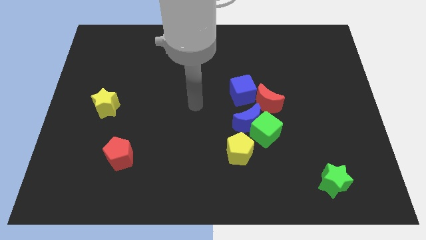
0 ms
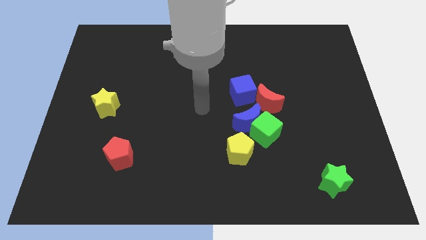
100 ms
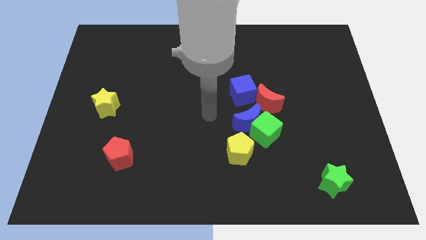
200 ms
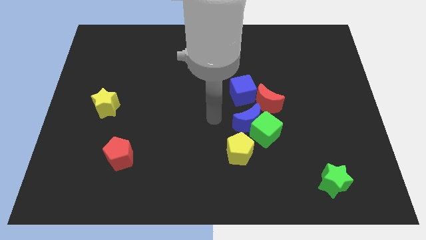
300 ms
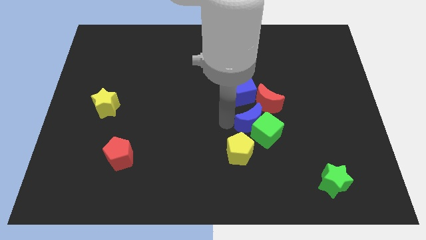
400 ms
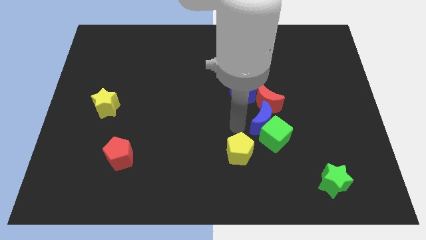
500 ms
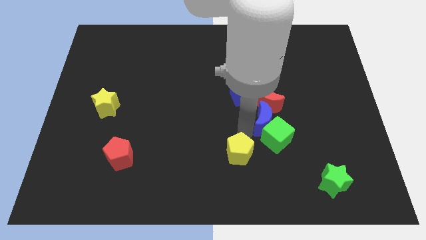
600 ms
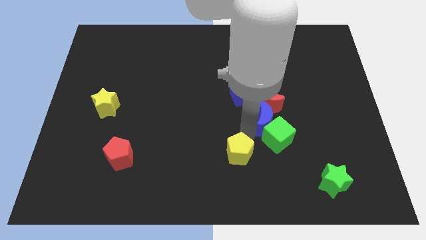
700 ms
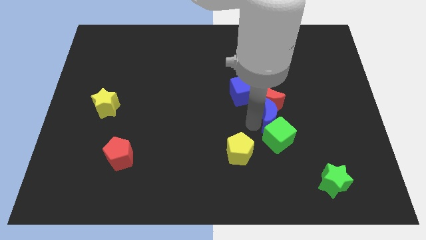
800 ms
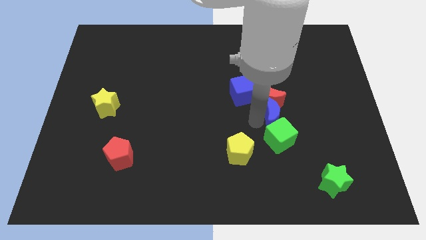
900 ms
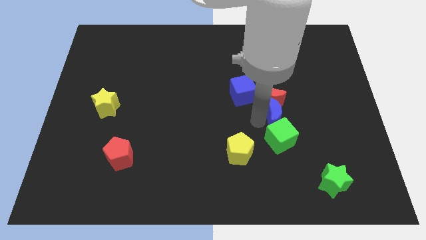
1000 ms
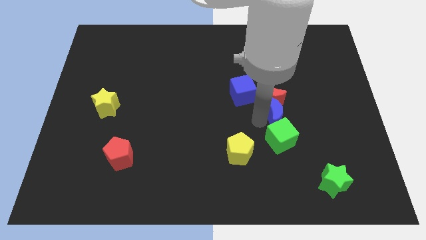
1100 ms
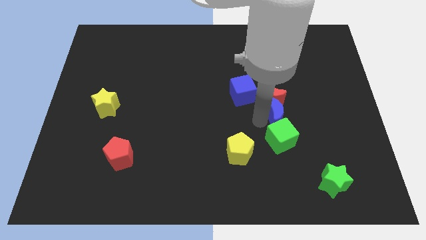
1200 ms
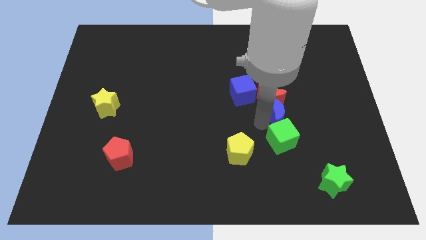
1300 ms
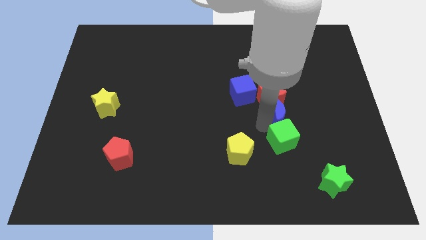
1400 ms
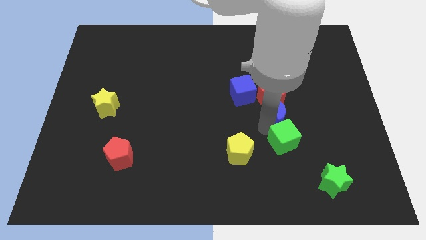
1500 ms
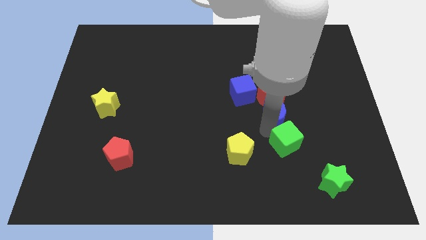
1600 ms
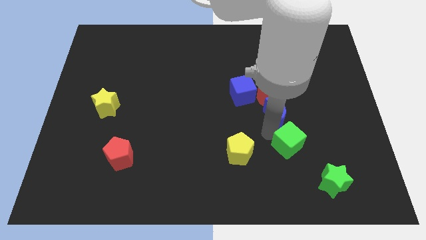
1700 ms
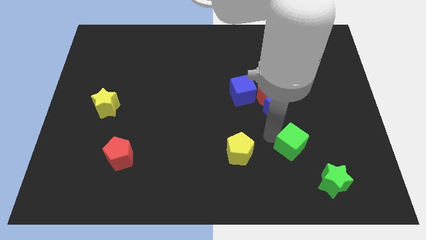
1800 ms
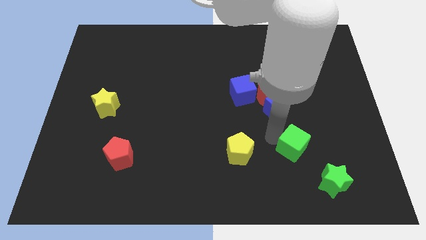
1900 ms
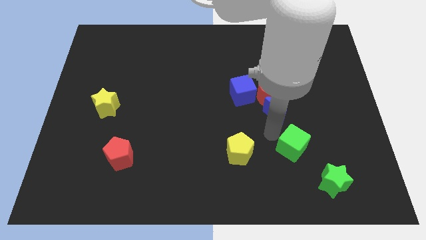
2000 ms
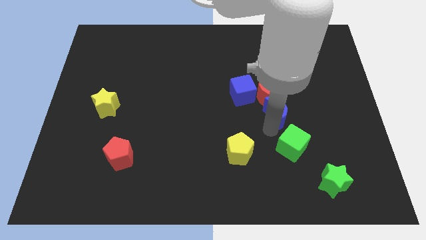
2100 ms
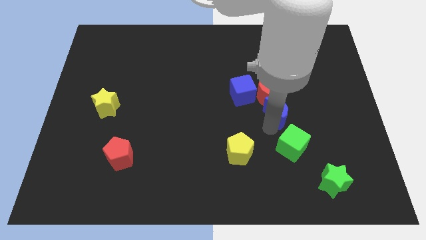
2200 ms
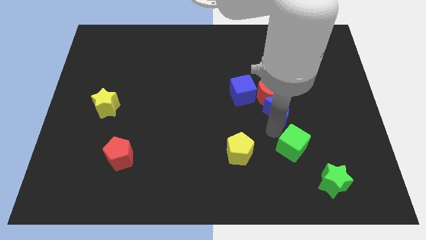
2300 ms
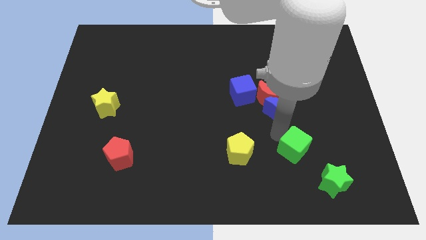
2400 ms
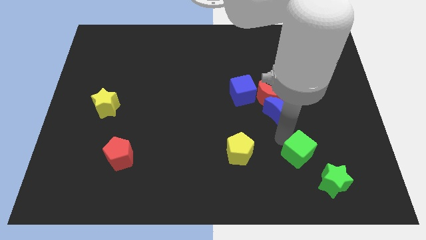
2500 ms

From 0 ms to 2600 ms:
pull the green cube apart from the blue moon, yellow pentagon, and red moon

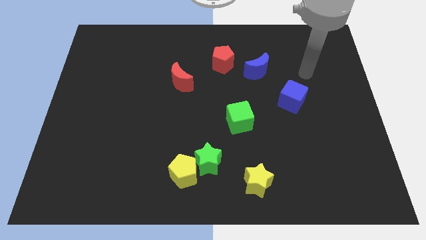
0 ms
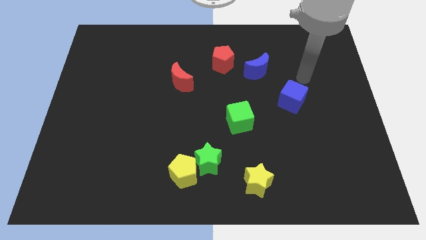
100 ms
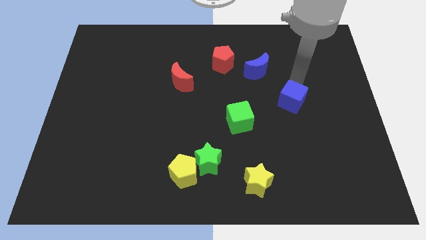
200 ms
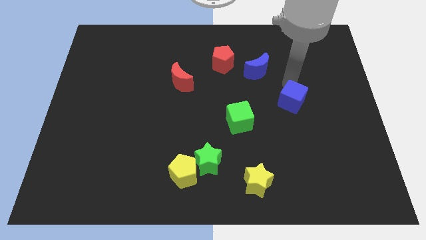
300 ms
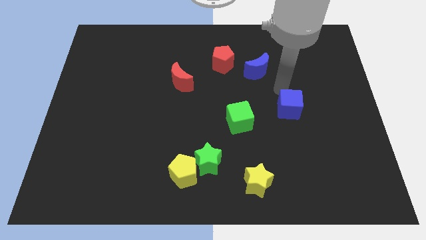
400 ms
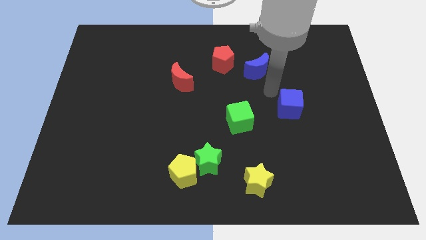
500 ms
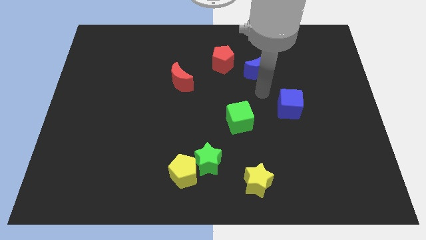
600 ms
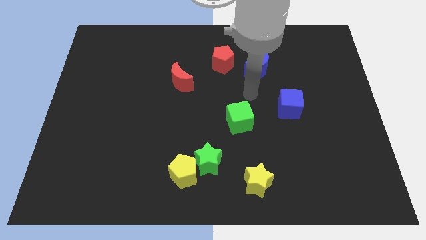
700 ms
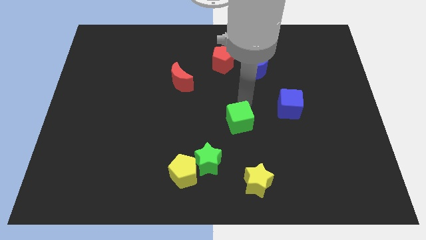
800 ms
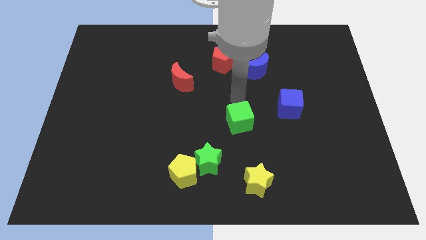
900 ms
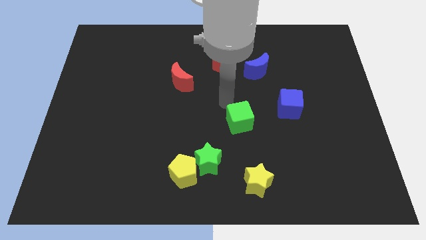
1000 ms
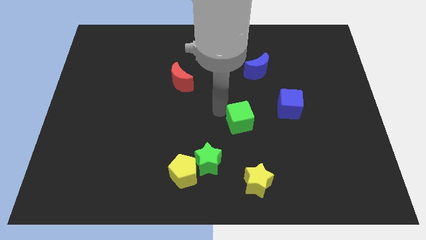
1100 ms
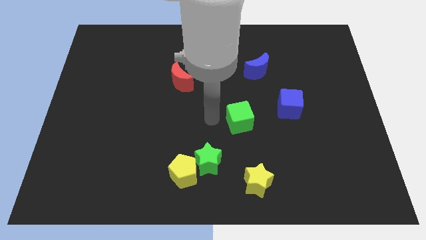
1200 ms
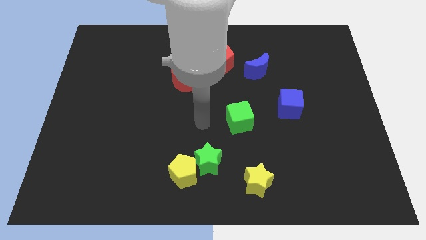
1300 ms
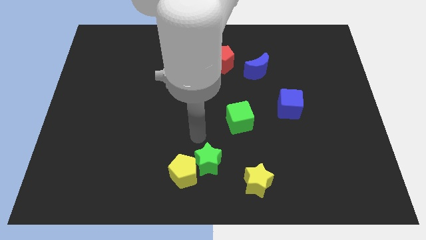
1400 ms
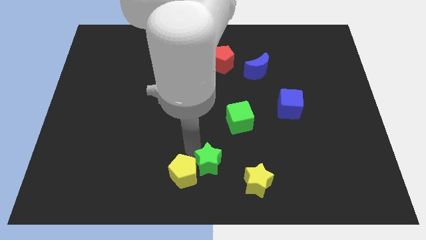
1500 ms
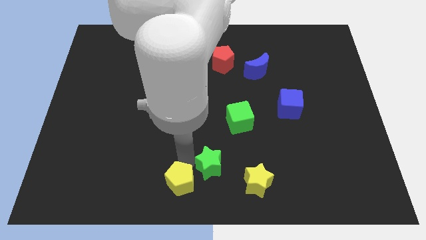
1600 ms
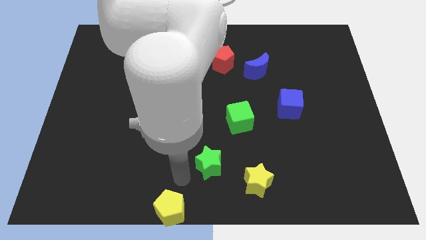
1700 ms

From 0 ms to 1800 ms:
move the green star away from the yellow pentagon

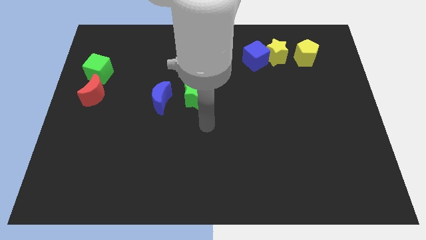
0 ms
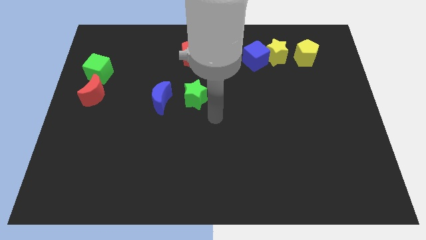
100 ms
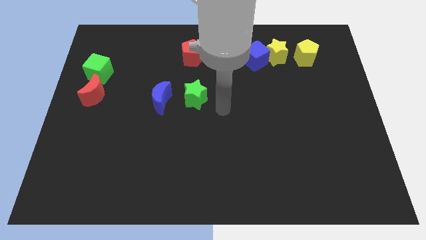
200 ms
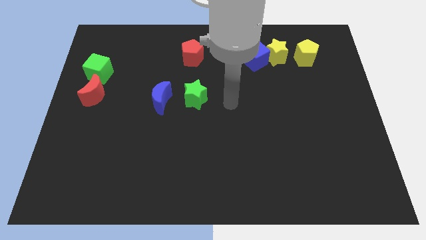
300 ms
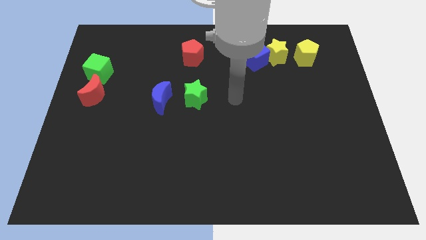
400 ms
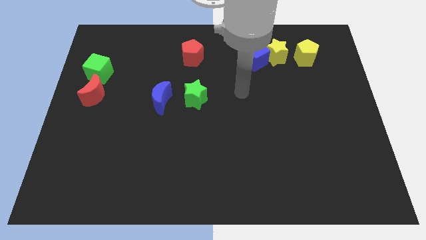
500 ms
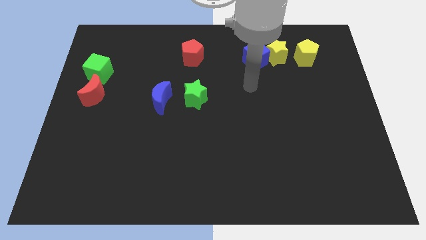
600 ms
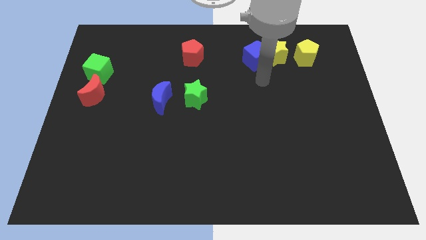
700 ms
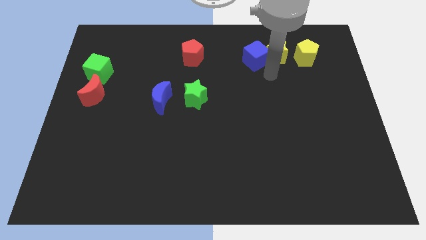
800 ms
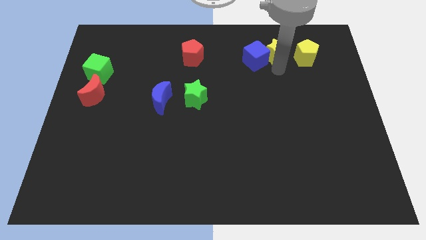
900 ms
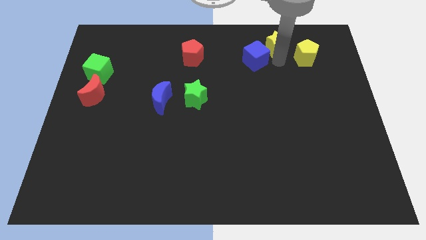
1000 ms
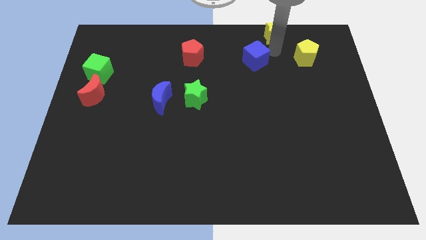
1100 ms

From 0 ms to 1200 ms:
separate the blue cube from the yellow star

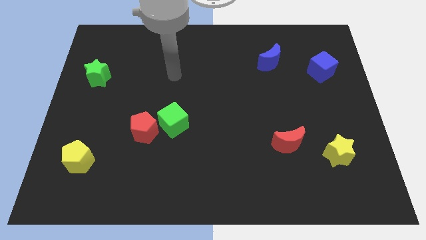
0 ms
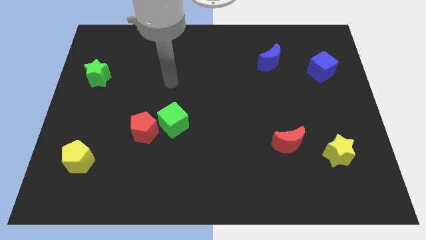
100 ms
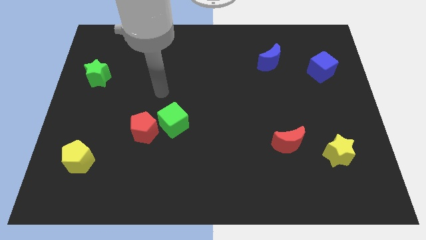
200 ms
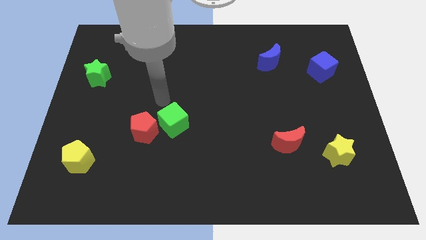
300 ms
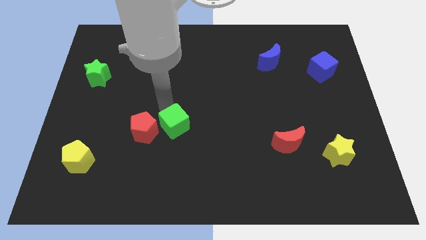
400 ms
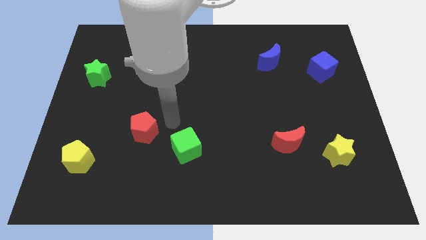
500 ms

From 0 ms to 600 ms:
separate the red pentagon from the green cube

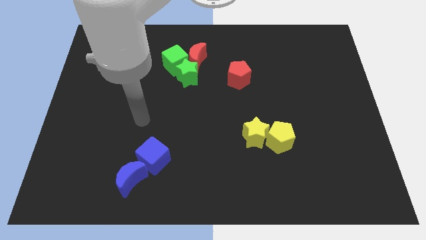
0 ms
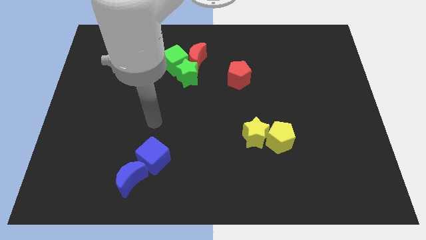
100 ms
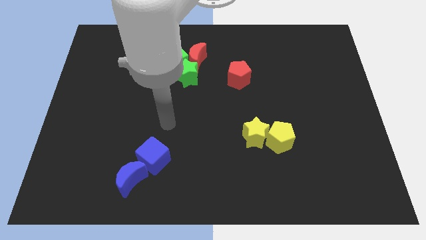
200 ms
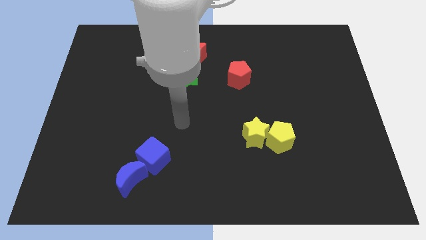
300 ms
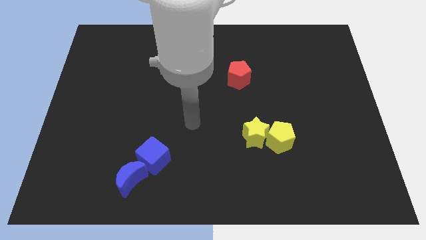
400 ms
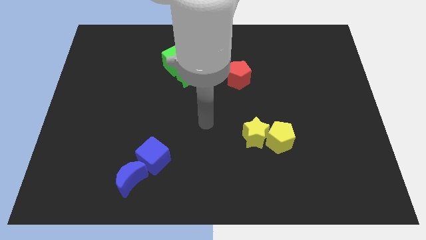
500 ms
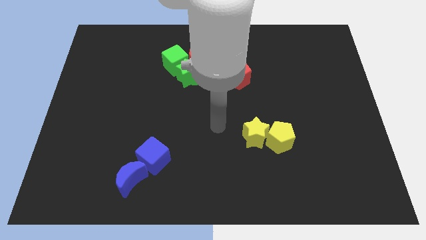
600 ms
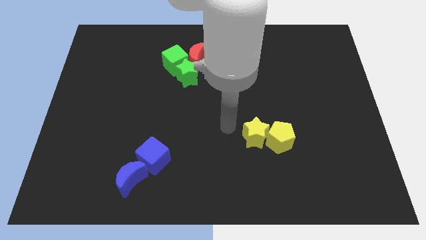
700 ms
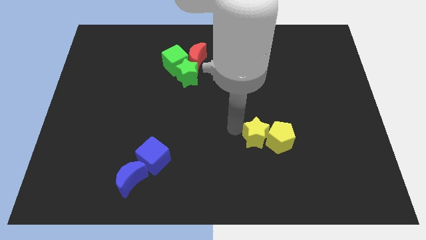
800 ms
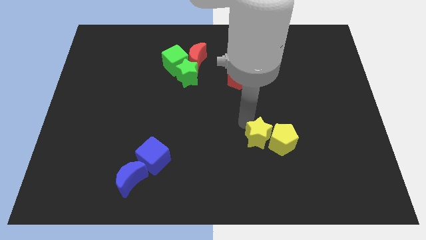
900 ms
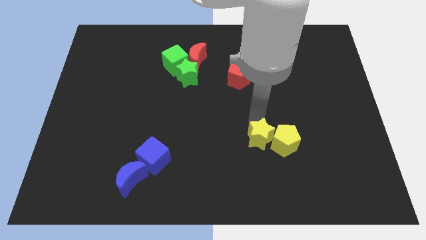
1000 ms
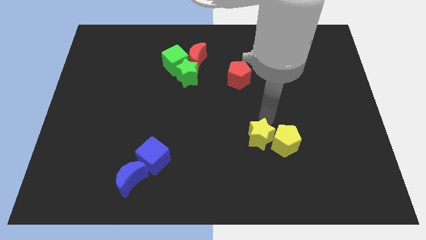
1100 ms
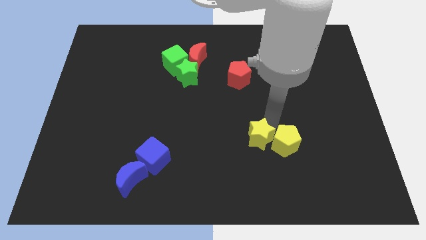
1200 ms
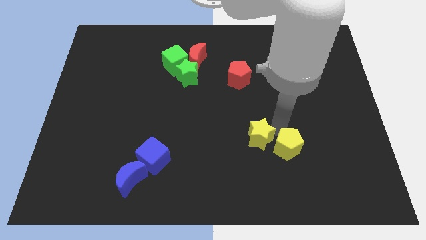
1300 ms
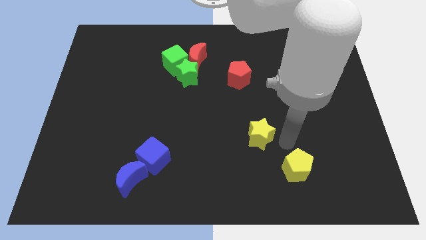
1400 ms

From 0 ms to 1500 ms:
move the yellow star away from the yellow pentagon

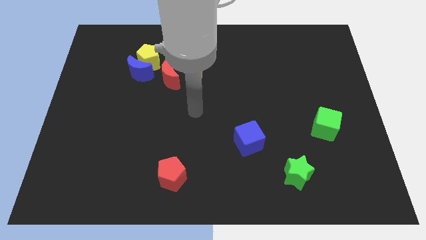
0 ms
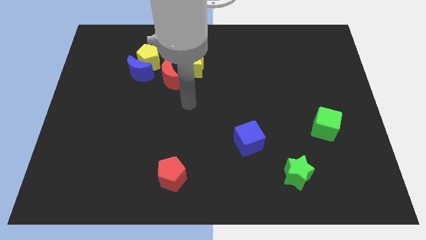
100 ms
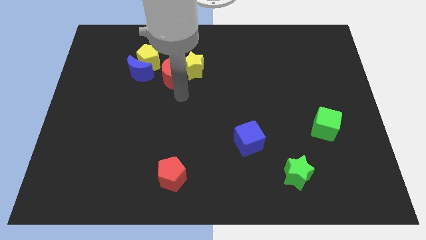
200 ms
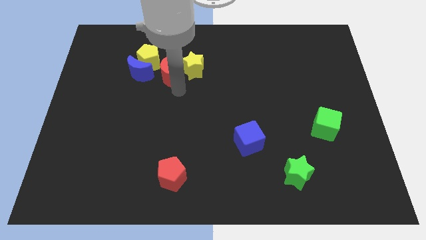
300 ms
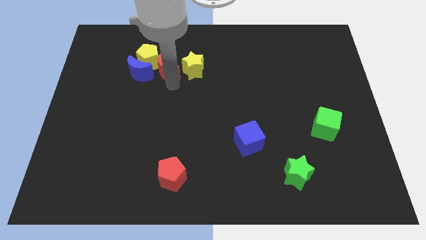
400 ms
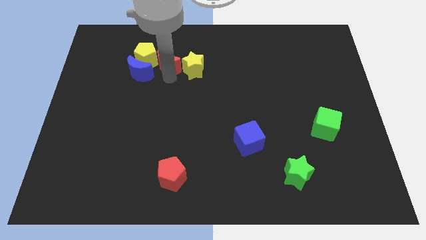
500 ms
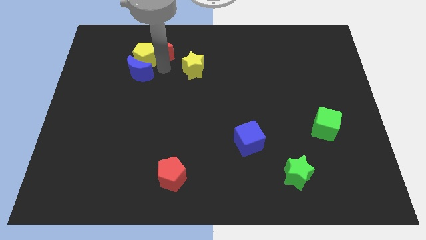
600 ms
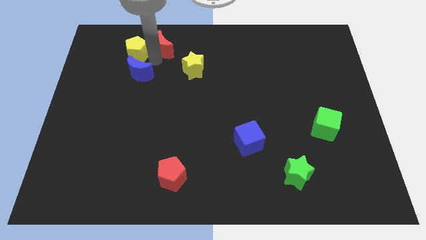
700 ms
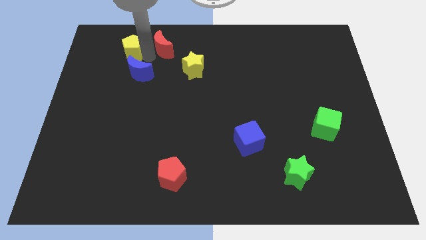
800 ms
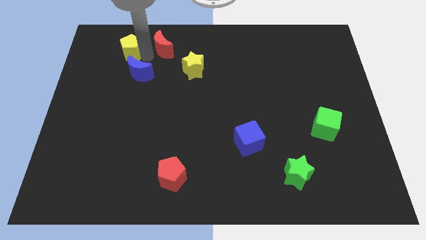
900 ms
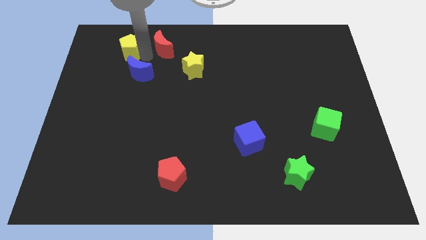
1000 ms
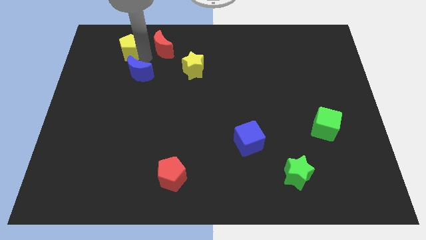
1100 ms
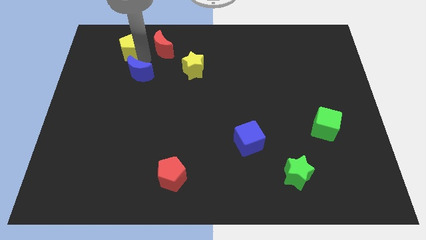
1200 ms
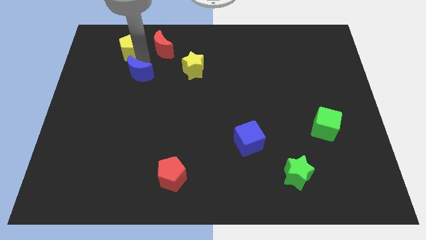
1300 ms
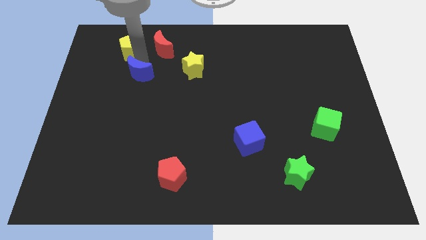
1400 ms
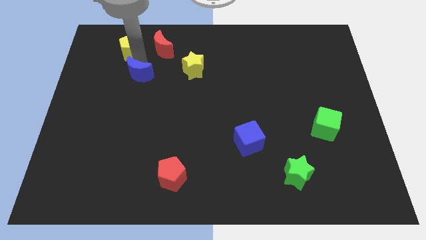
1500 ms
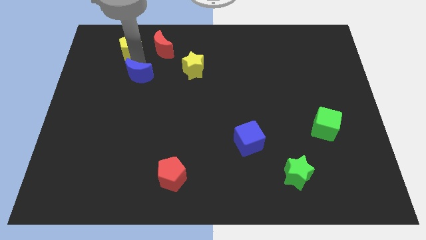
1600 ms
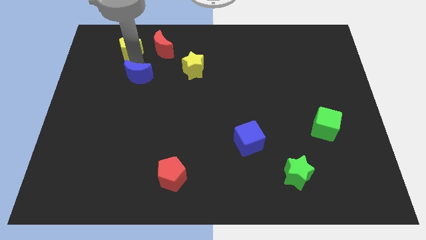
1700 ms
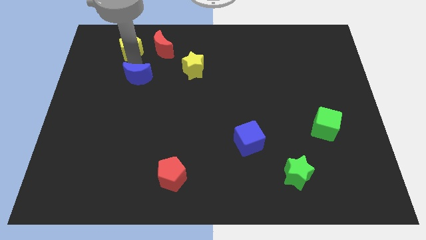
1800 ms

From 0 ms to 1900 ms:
move the blue moon away from the yellow pentagon and red moon
